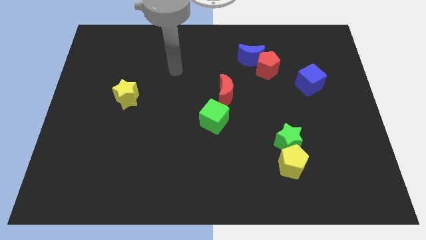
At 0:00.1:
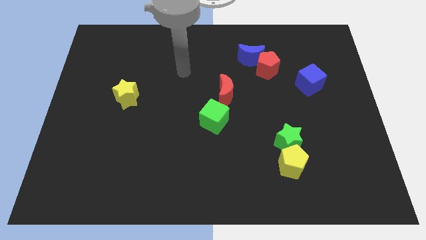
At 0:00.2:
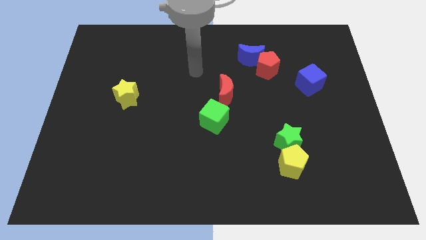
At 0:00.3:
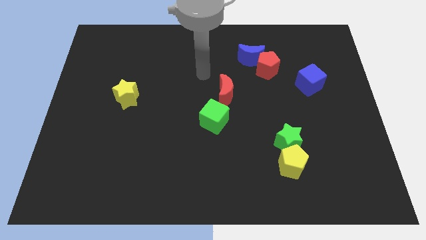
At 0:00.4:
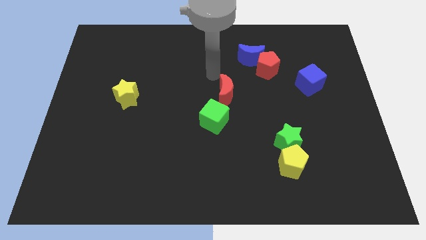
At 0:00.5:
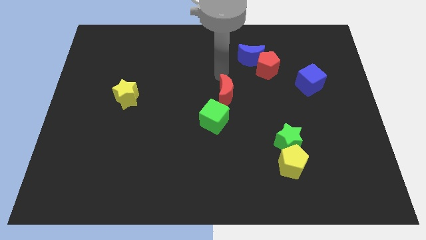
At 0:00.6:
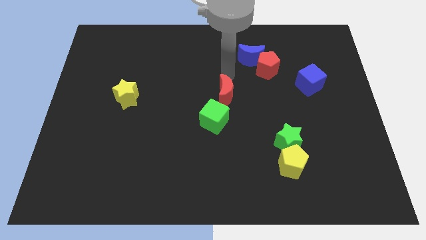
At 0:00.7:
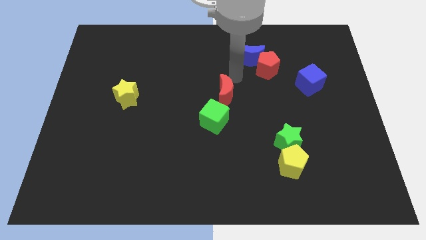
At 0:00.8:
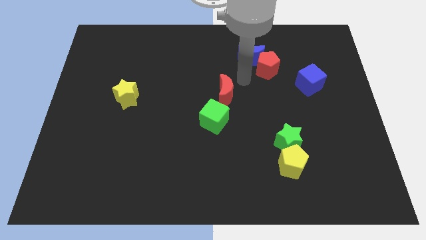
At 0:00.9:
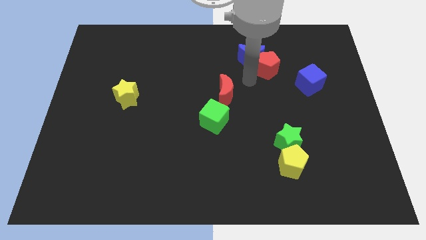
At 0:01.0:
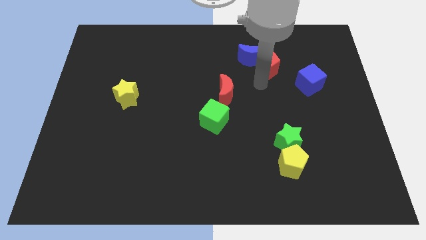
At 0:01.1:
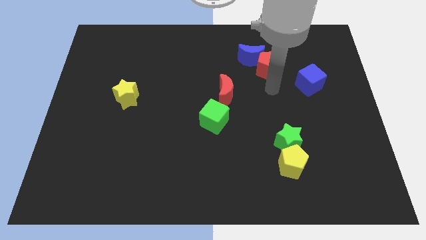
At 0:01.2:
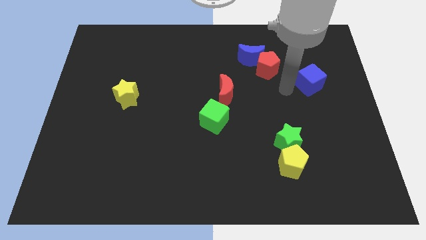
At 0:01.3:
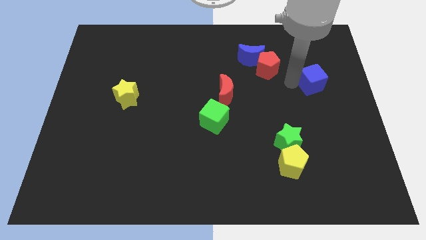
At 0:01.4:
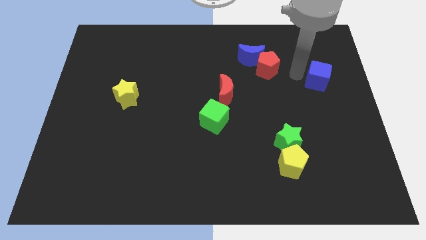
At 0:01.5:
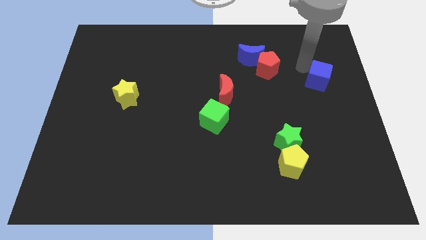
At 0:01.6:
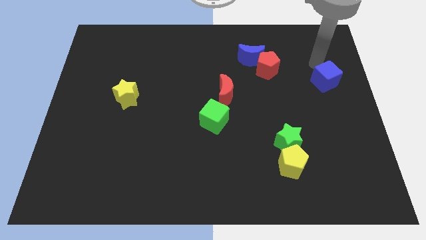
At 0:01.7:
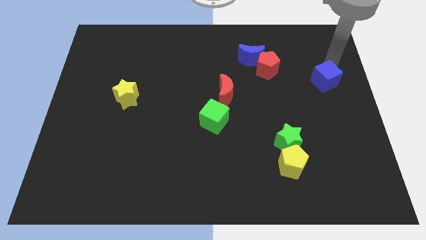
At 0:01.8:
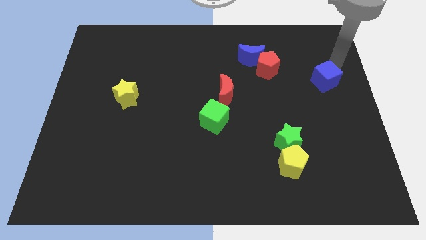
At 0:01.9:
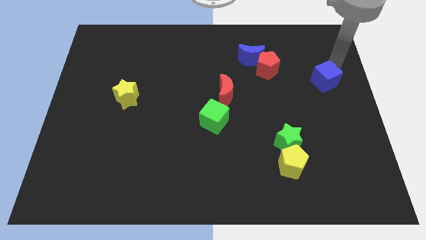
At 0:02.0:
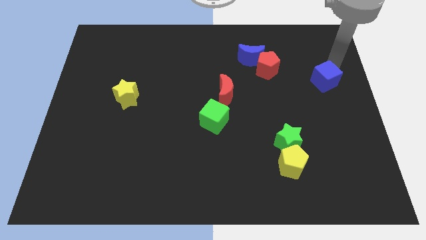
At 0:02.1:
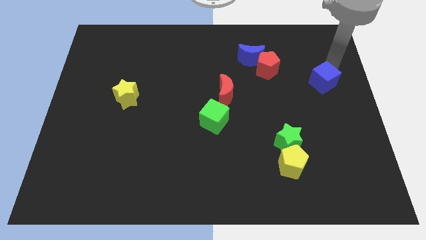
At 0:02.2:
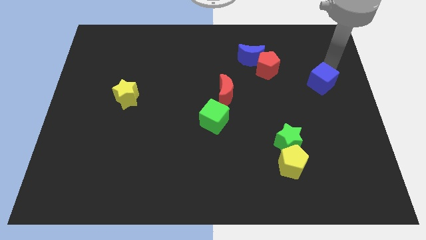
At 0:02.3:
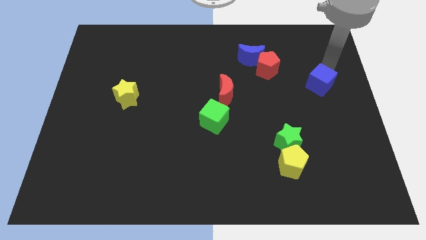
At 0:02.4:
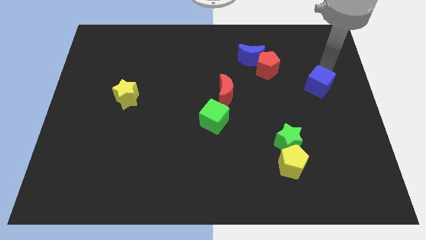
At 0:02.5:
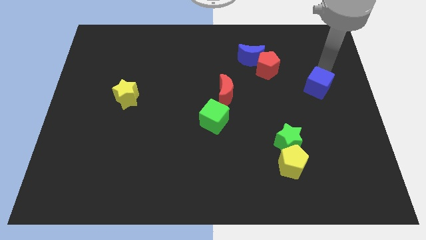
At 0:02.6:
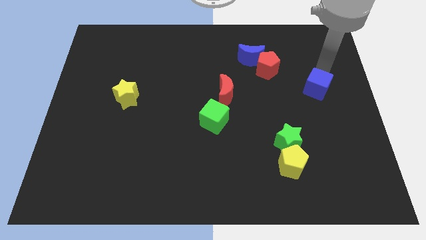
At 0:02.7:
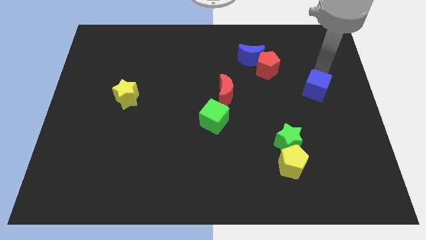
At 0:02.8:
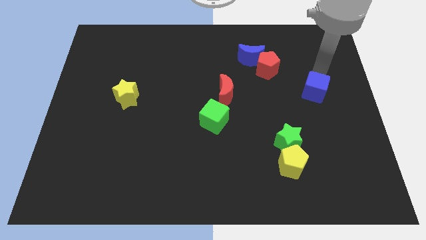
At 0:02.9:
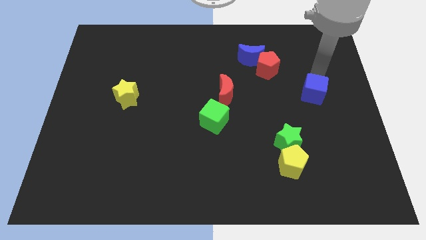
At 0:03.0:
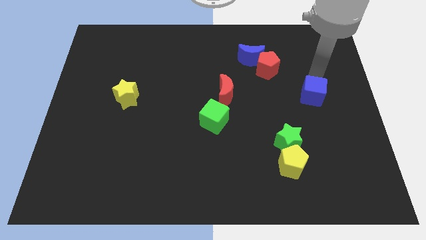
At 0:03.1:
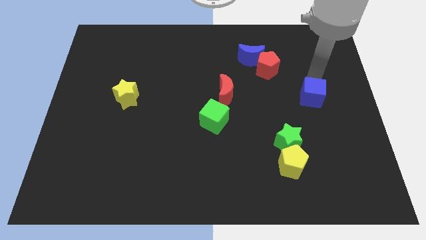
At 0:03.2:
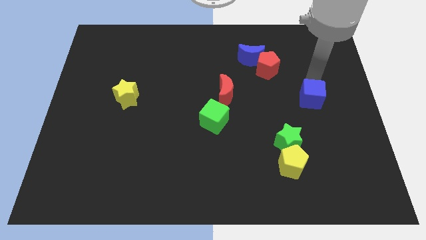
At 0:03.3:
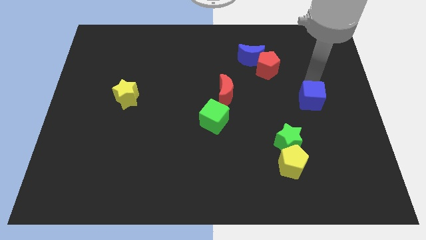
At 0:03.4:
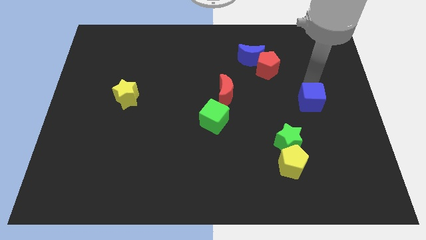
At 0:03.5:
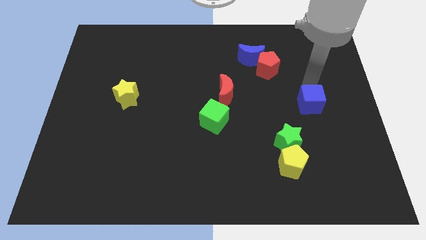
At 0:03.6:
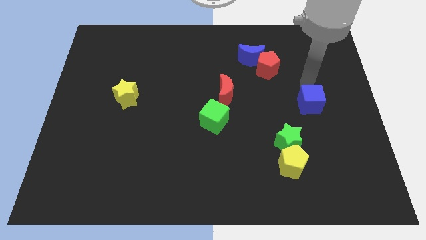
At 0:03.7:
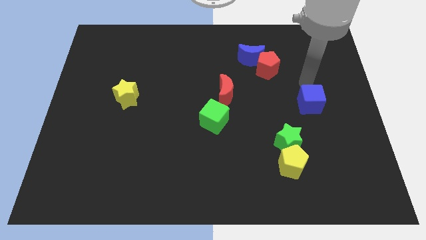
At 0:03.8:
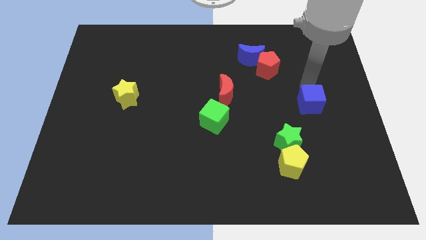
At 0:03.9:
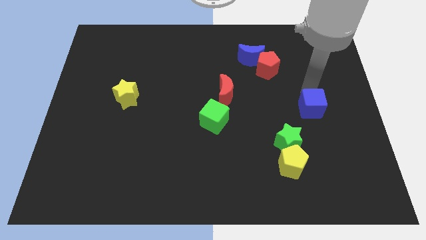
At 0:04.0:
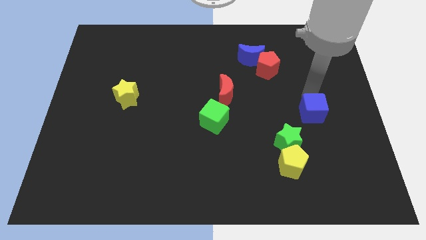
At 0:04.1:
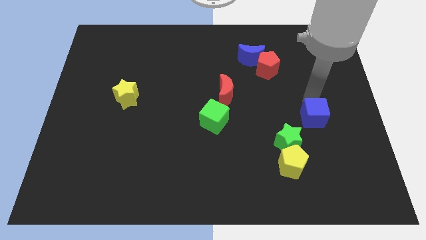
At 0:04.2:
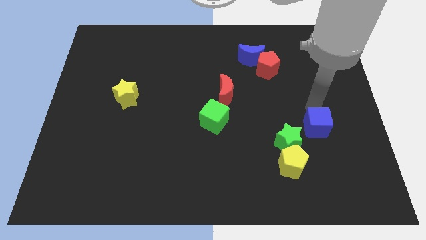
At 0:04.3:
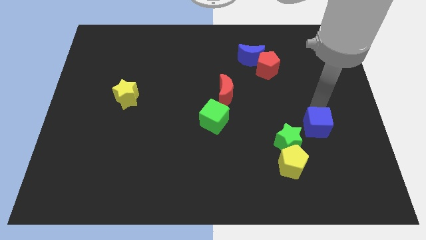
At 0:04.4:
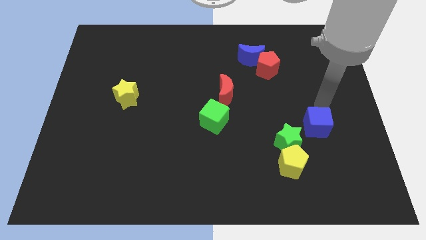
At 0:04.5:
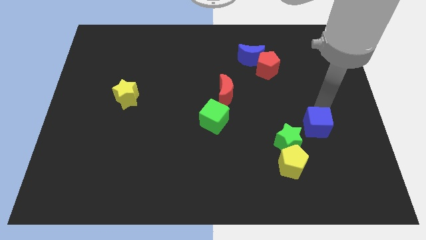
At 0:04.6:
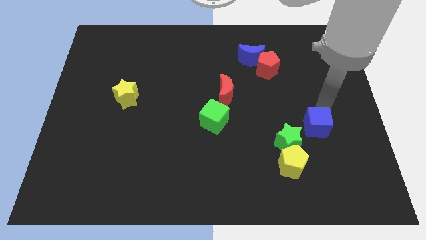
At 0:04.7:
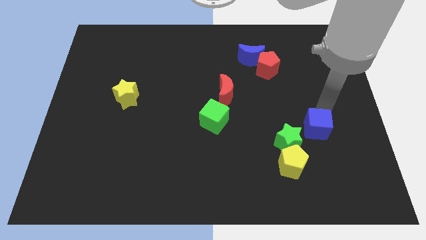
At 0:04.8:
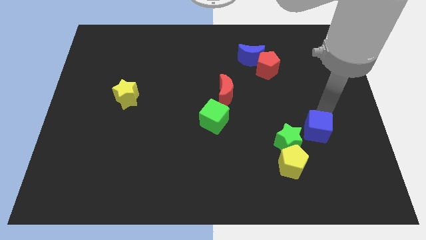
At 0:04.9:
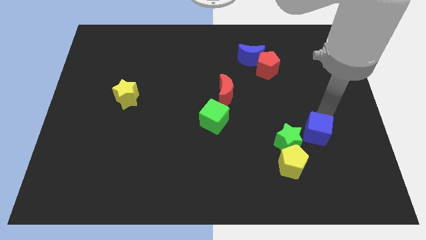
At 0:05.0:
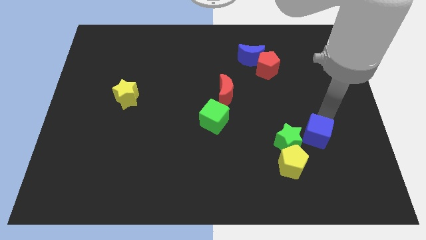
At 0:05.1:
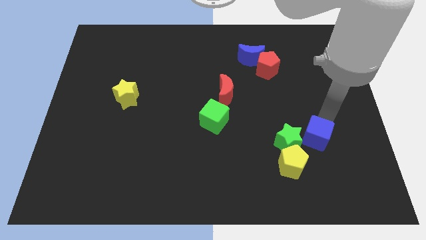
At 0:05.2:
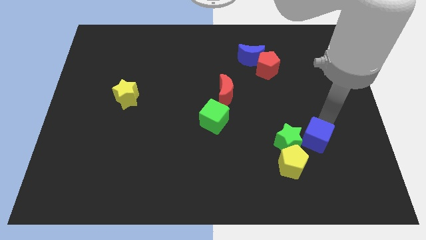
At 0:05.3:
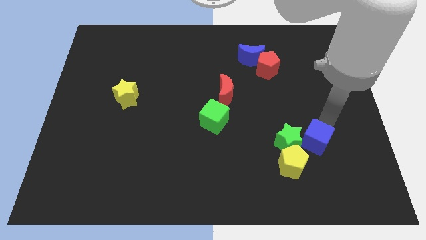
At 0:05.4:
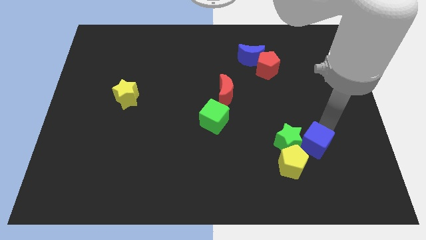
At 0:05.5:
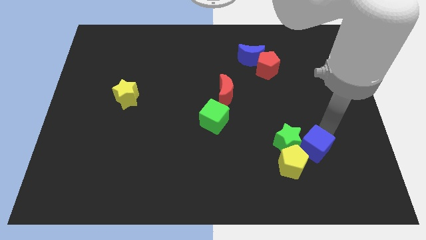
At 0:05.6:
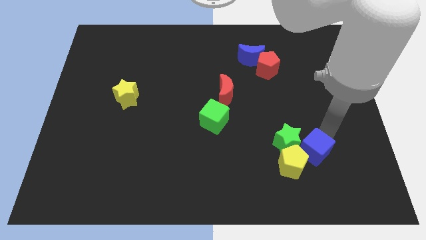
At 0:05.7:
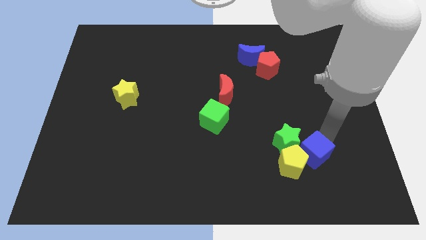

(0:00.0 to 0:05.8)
move the blue cube towards the yellow pentagon
